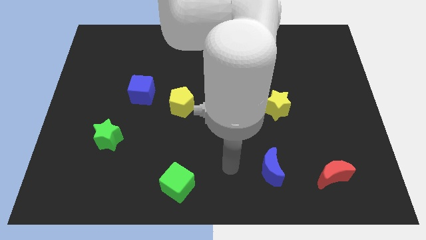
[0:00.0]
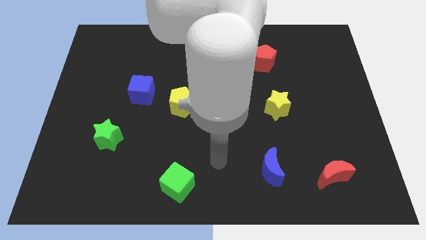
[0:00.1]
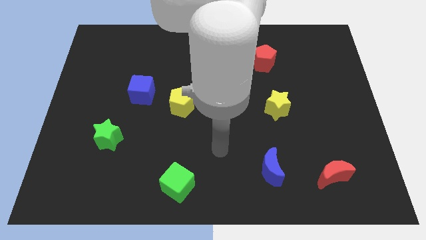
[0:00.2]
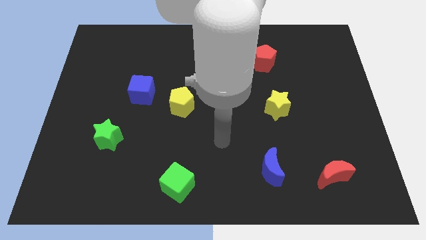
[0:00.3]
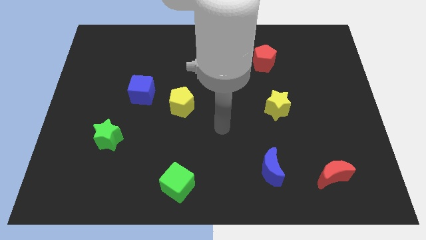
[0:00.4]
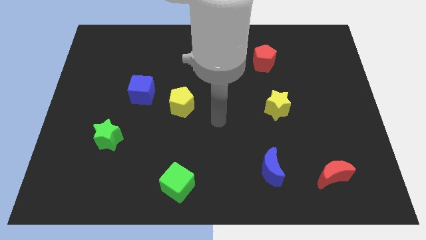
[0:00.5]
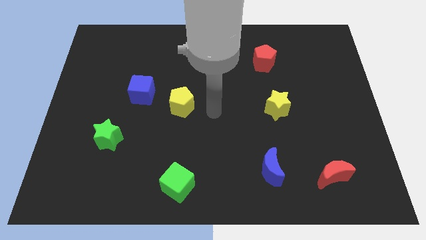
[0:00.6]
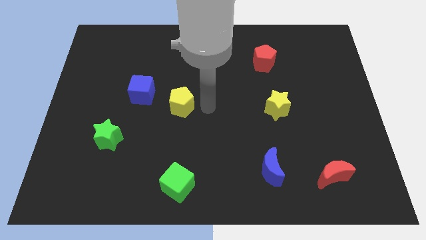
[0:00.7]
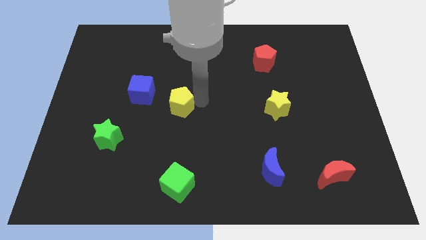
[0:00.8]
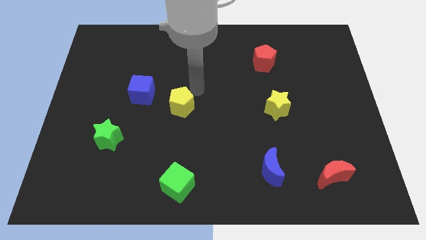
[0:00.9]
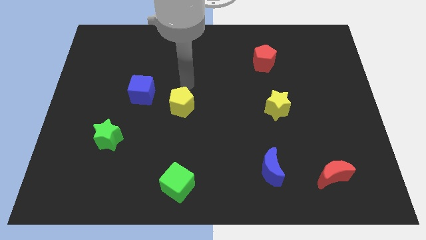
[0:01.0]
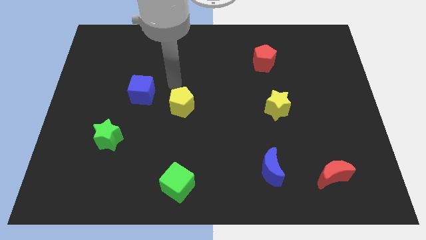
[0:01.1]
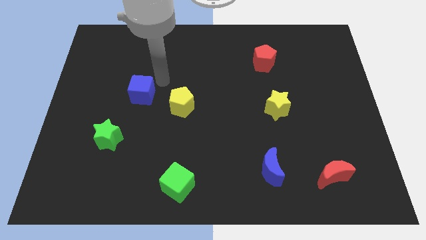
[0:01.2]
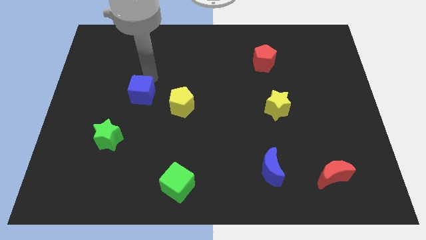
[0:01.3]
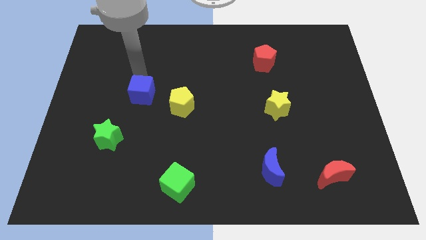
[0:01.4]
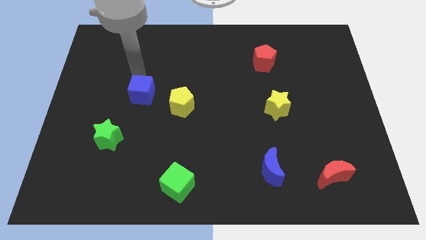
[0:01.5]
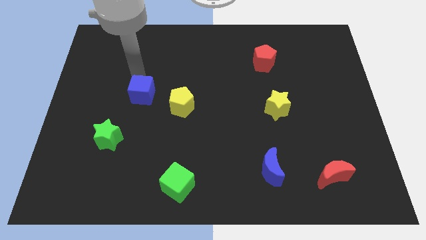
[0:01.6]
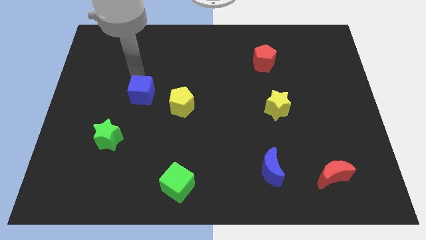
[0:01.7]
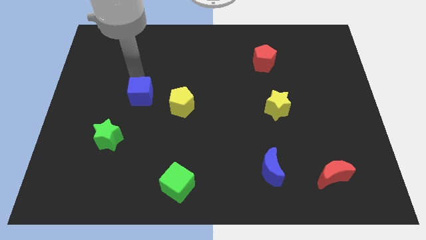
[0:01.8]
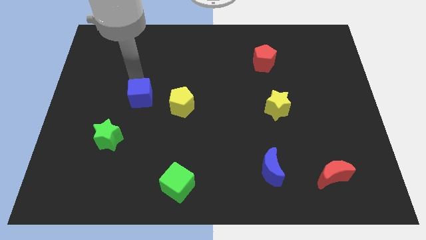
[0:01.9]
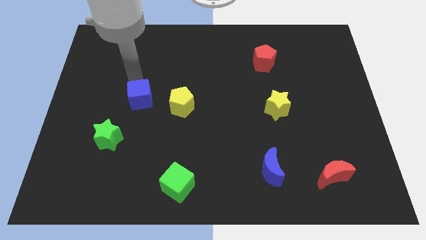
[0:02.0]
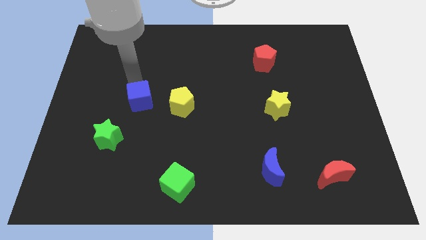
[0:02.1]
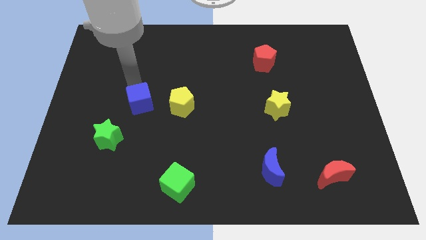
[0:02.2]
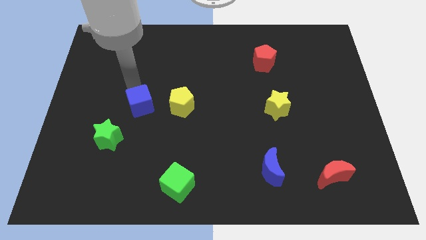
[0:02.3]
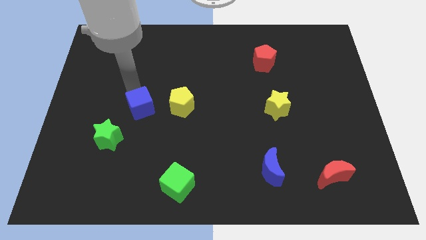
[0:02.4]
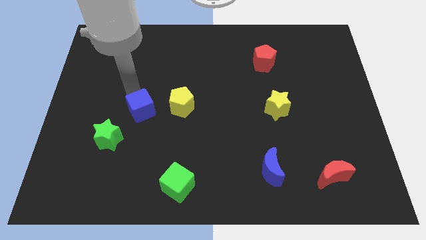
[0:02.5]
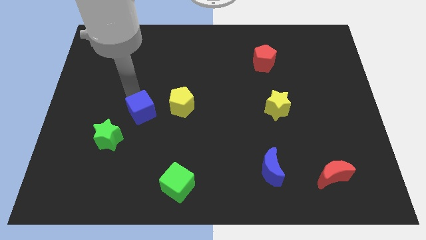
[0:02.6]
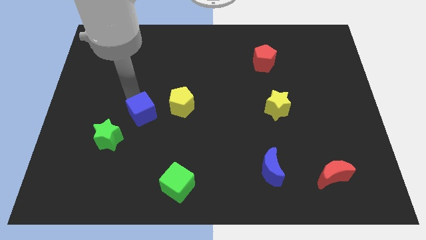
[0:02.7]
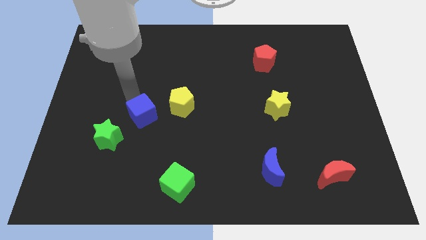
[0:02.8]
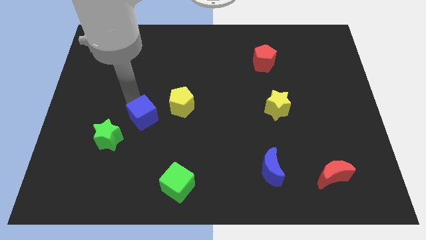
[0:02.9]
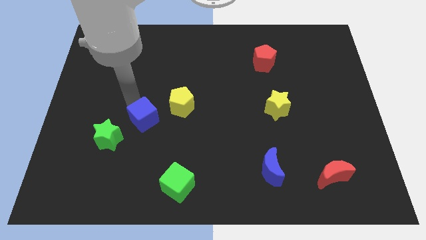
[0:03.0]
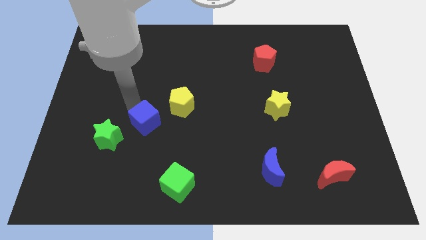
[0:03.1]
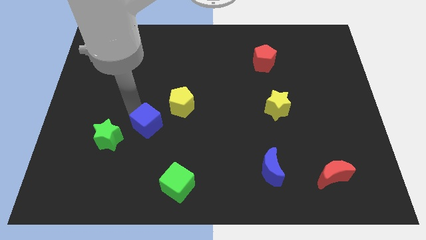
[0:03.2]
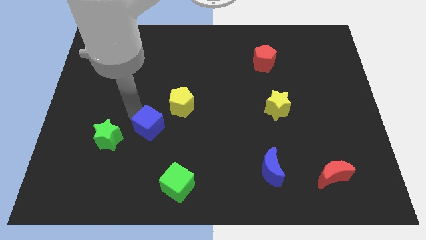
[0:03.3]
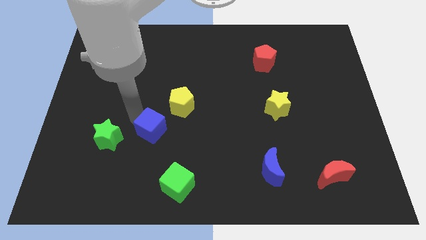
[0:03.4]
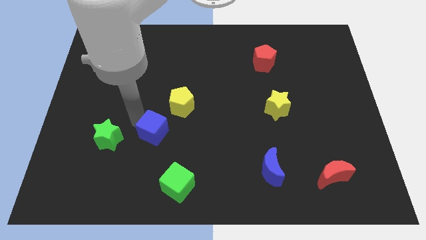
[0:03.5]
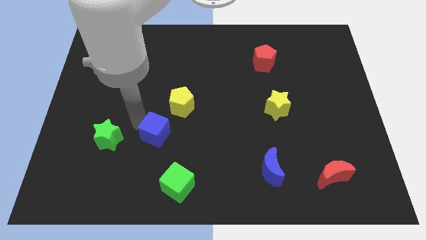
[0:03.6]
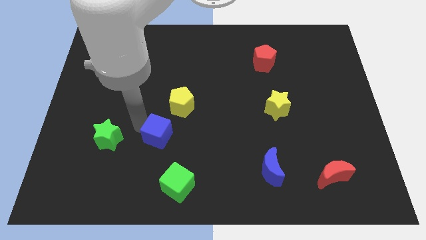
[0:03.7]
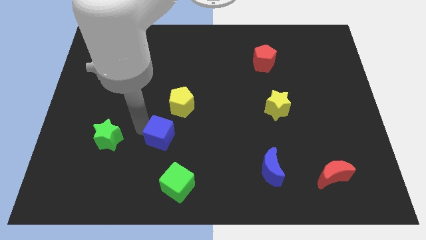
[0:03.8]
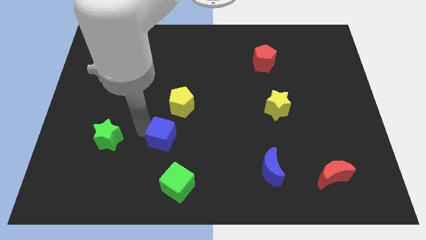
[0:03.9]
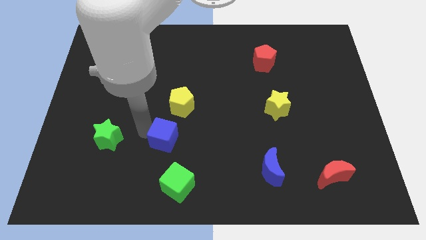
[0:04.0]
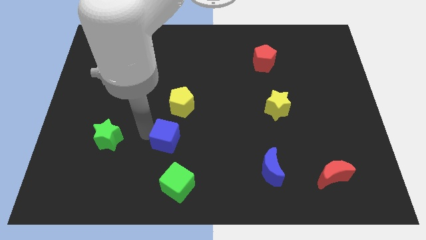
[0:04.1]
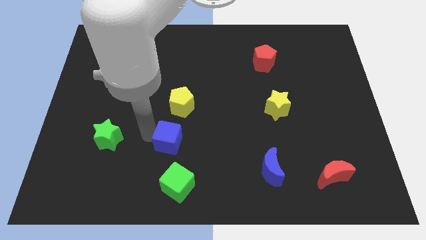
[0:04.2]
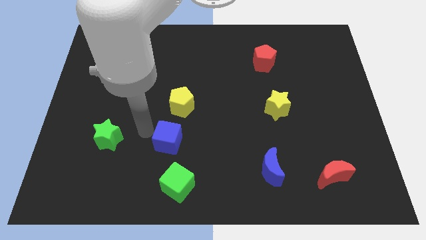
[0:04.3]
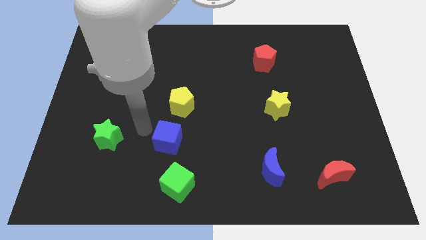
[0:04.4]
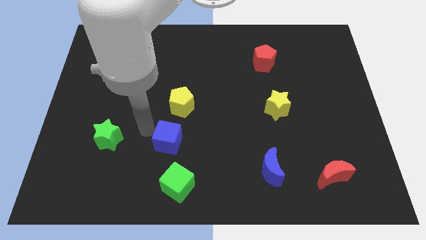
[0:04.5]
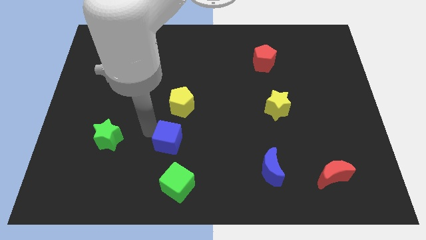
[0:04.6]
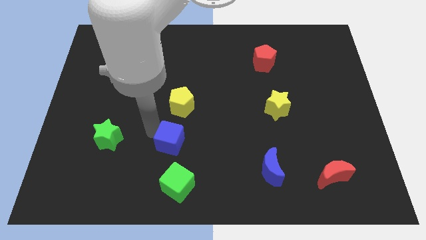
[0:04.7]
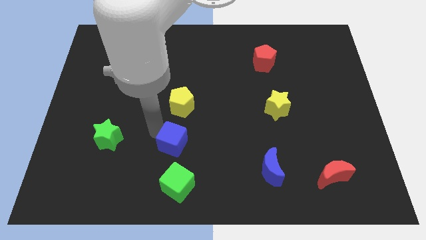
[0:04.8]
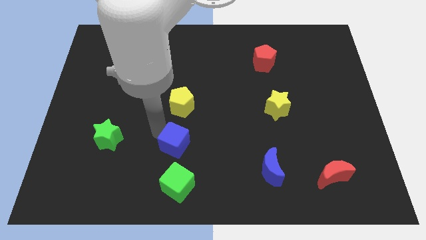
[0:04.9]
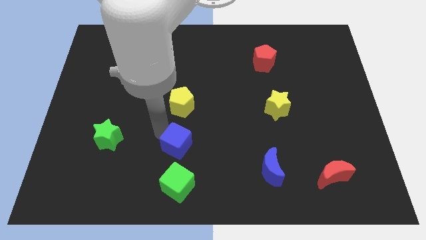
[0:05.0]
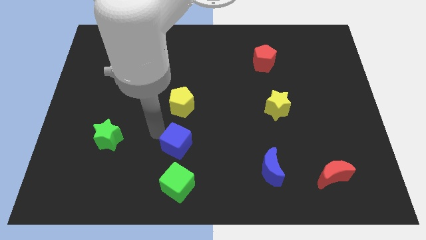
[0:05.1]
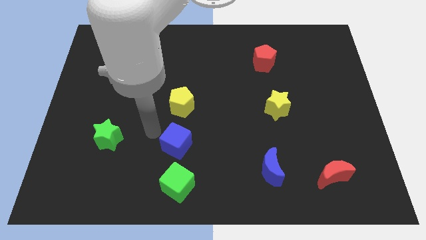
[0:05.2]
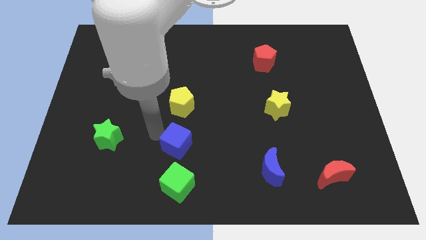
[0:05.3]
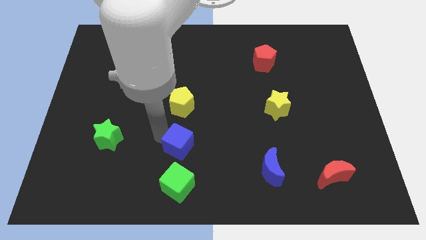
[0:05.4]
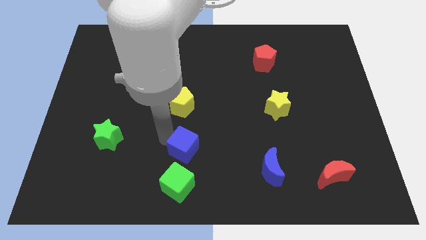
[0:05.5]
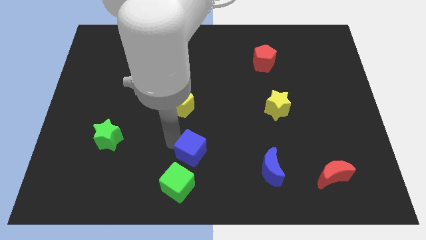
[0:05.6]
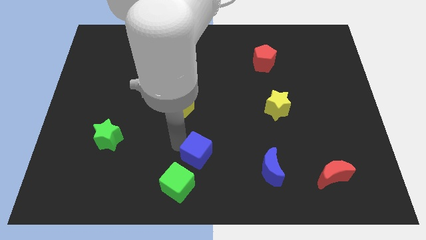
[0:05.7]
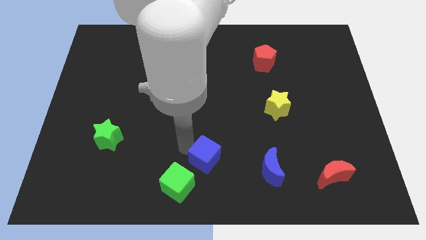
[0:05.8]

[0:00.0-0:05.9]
slide the blue cube left of the blue moon

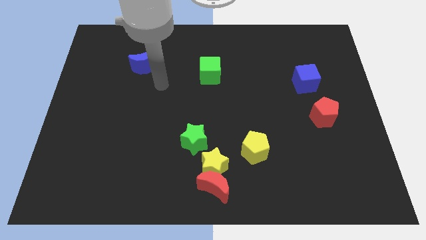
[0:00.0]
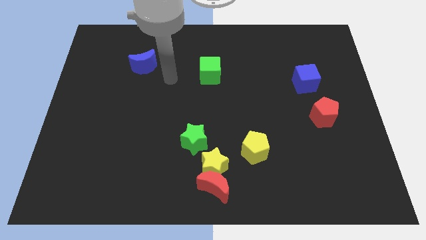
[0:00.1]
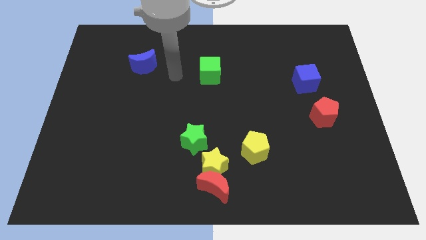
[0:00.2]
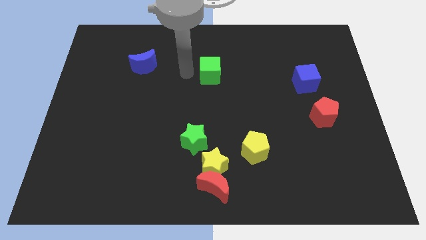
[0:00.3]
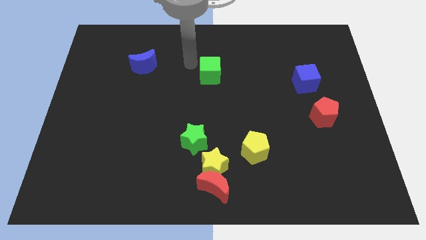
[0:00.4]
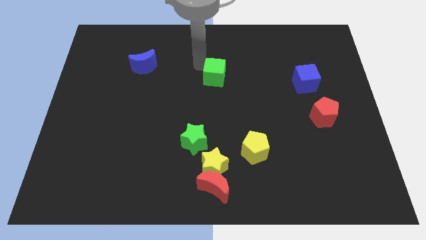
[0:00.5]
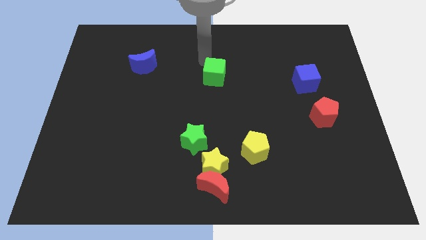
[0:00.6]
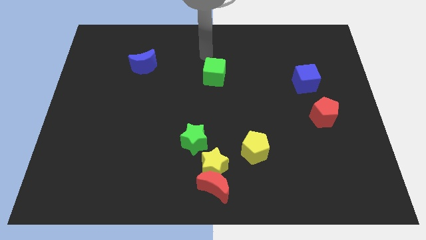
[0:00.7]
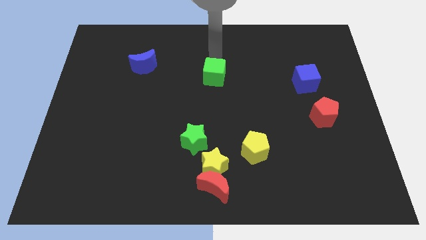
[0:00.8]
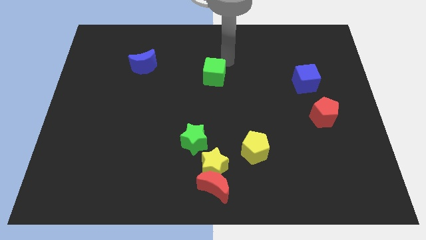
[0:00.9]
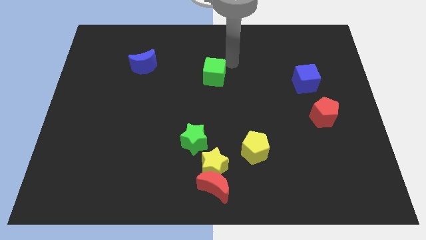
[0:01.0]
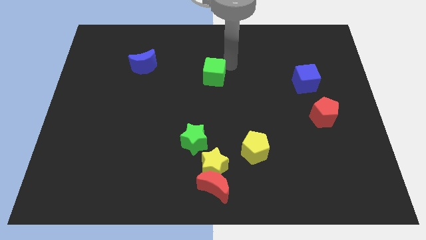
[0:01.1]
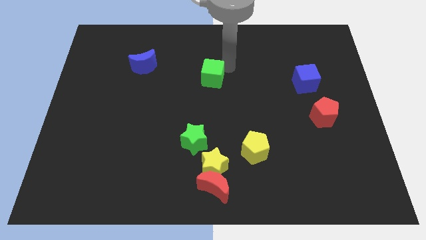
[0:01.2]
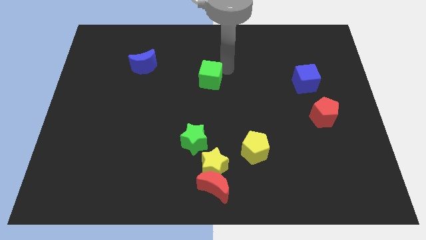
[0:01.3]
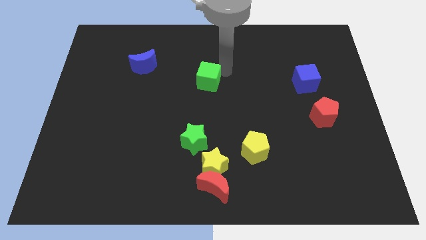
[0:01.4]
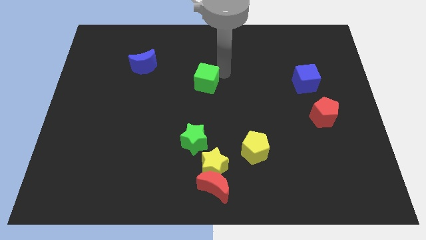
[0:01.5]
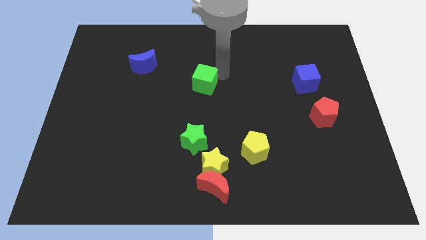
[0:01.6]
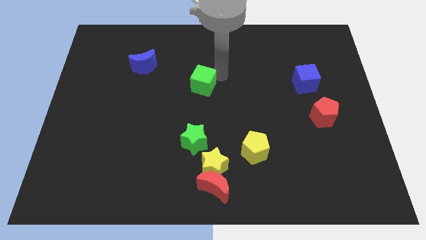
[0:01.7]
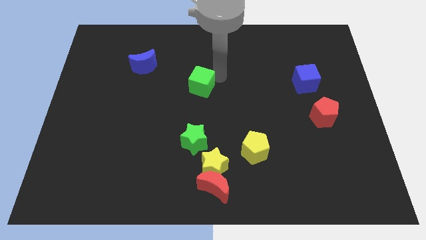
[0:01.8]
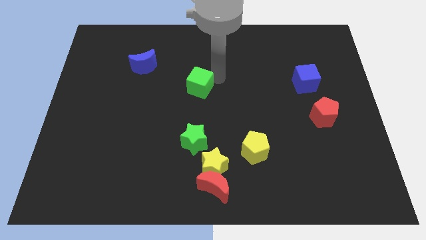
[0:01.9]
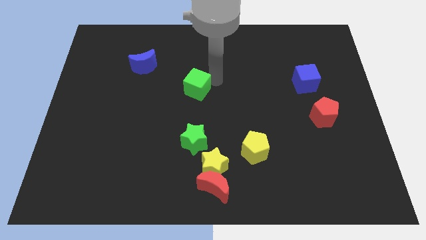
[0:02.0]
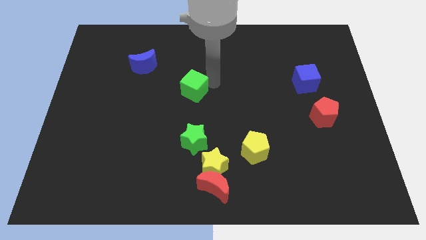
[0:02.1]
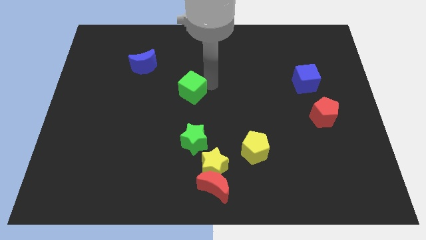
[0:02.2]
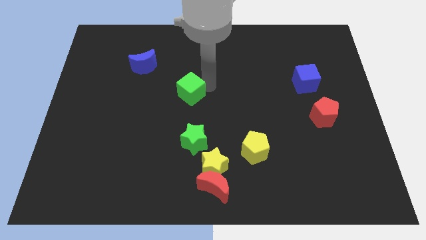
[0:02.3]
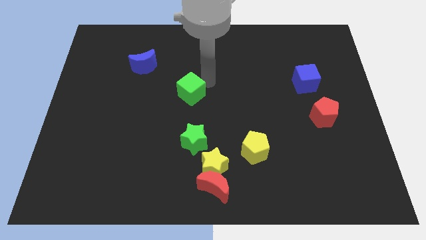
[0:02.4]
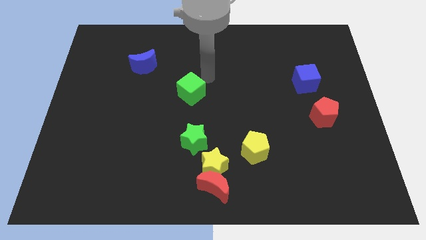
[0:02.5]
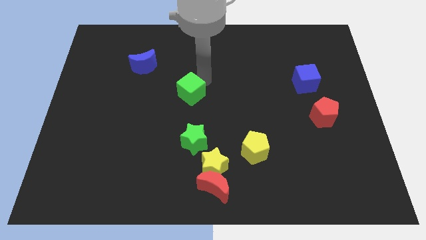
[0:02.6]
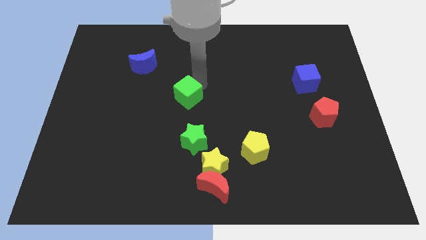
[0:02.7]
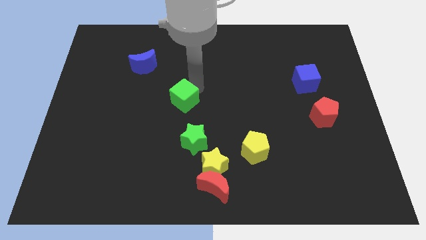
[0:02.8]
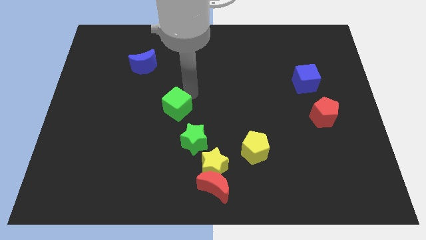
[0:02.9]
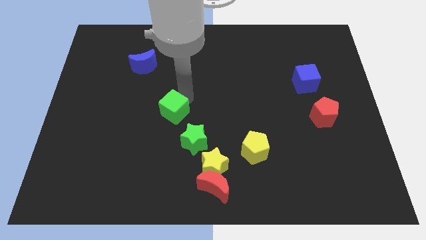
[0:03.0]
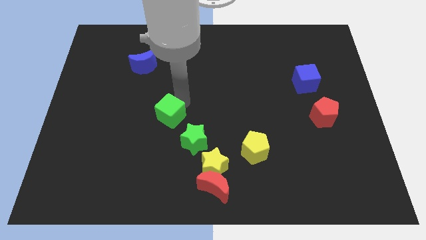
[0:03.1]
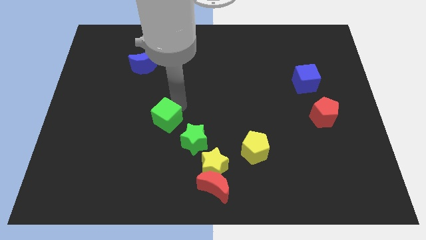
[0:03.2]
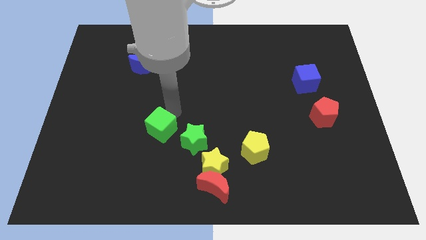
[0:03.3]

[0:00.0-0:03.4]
move the green cube to the left of the green star
